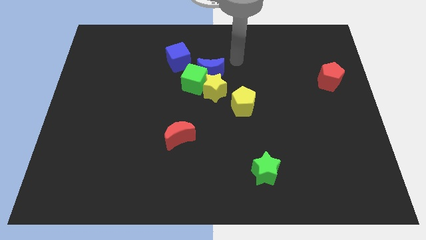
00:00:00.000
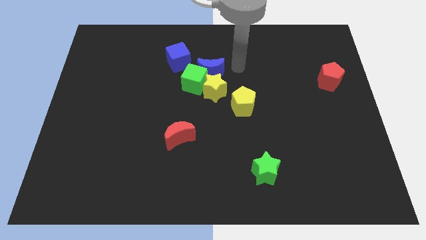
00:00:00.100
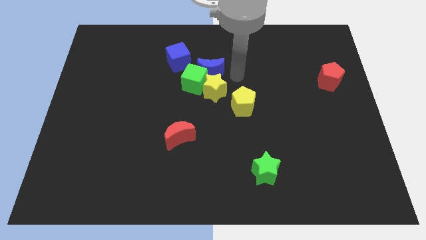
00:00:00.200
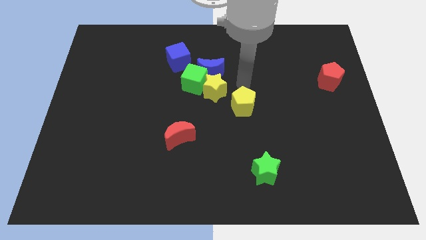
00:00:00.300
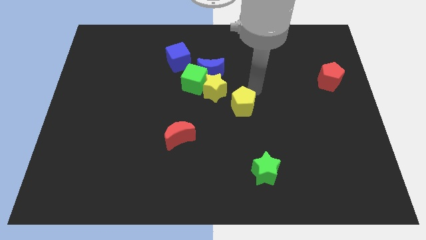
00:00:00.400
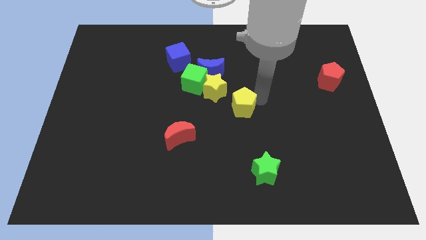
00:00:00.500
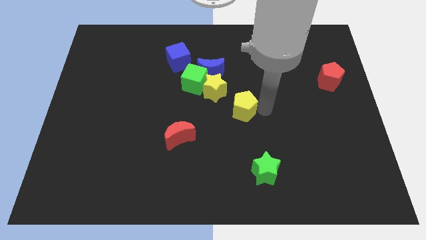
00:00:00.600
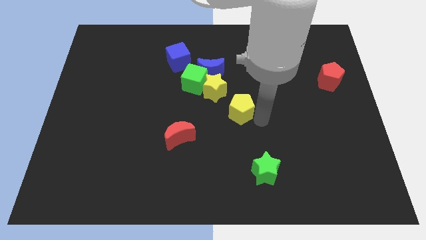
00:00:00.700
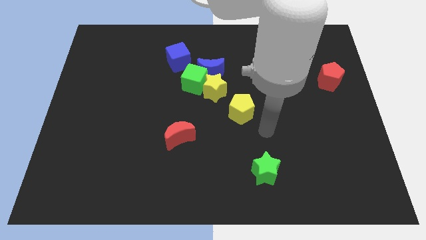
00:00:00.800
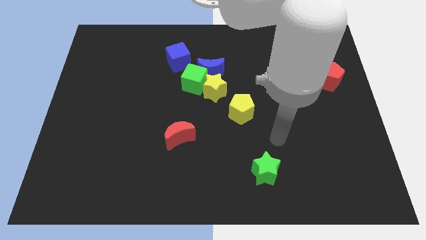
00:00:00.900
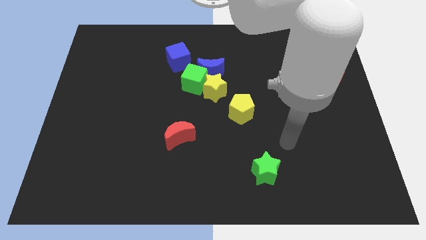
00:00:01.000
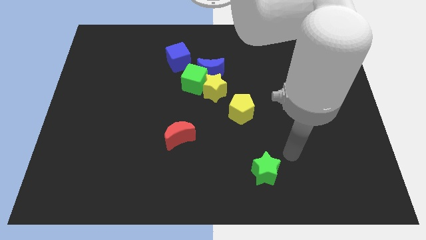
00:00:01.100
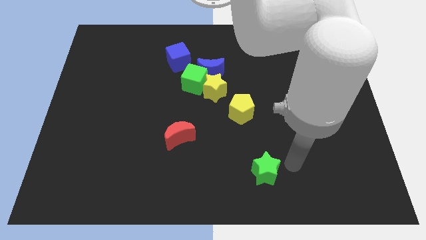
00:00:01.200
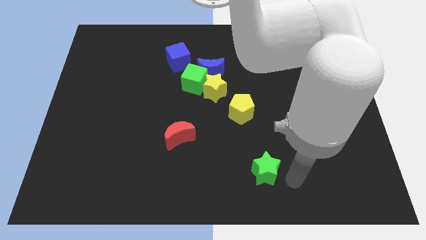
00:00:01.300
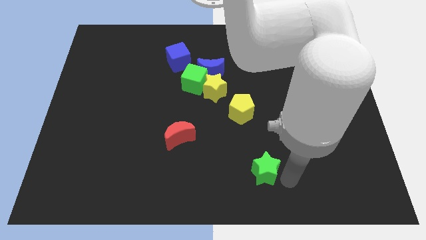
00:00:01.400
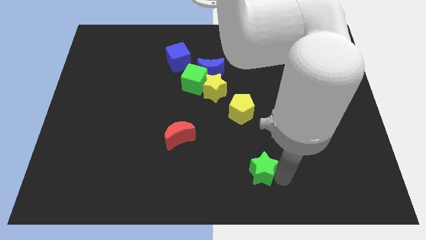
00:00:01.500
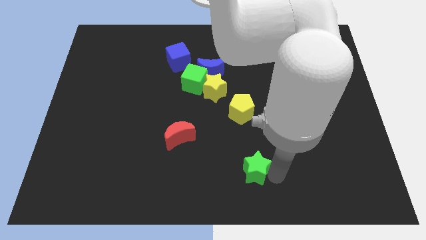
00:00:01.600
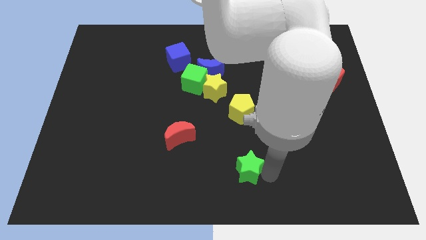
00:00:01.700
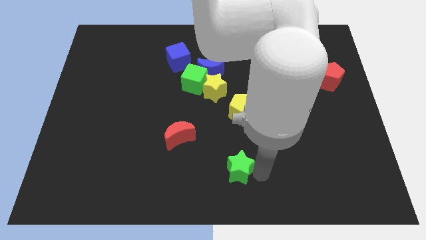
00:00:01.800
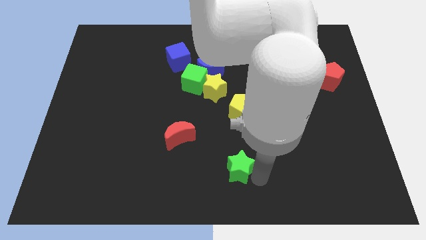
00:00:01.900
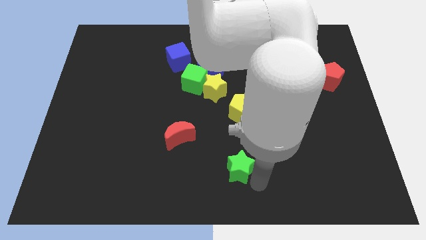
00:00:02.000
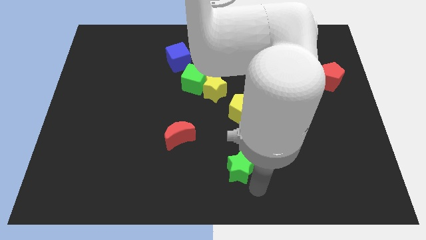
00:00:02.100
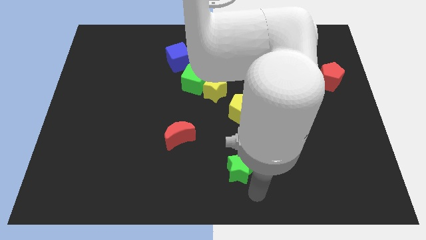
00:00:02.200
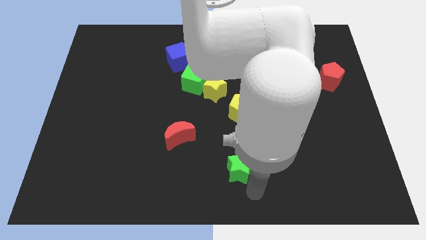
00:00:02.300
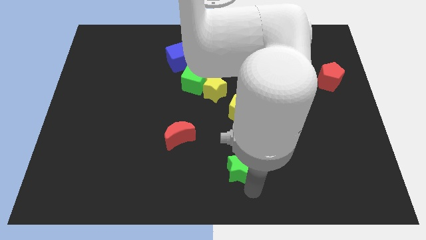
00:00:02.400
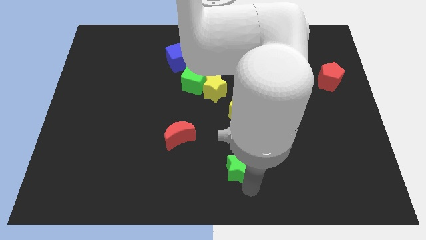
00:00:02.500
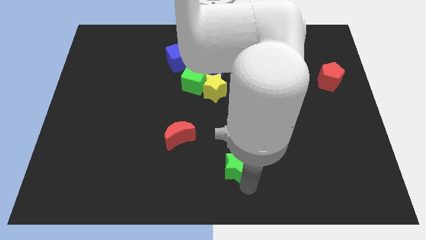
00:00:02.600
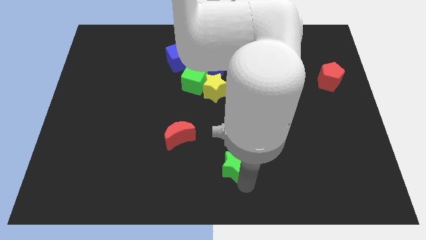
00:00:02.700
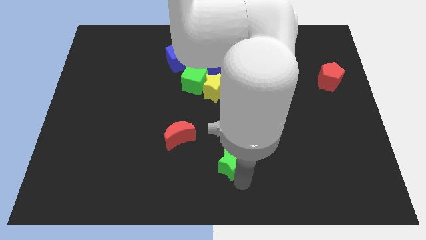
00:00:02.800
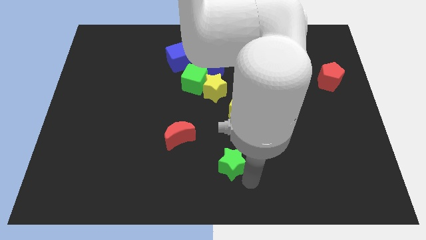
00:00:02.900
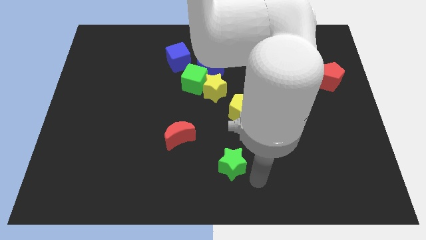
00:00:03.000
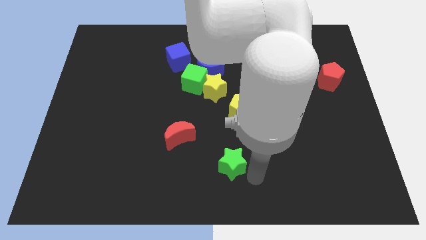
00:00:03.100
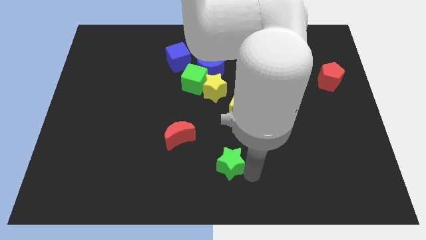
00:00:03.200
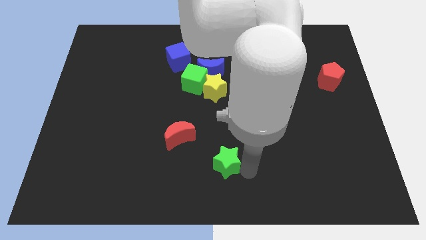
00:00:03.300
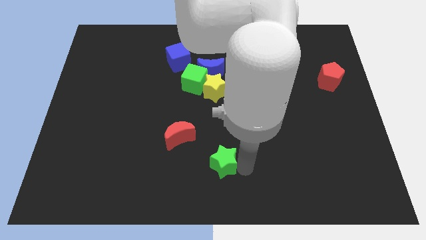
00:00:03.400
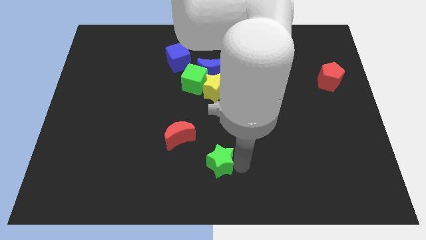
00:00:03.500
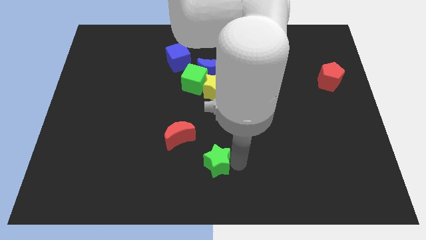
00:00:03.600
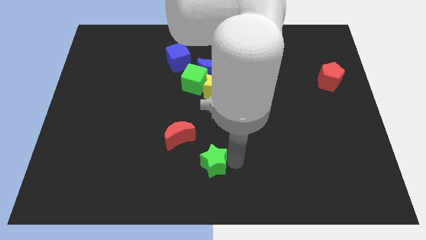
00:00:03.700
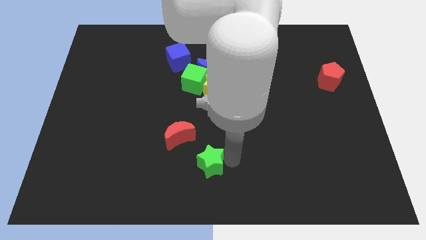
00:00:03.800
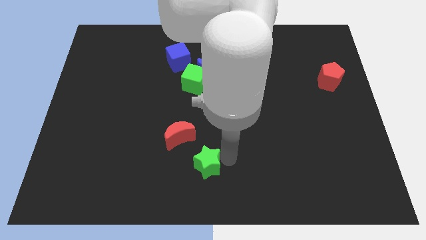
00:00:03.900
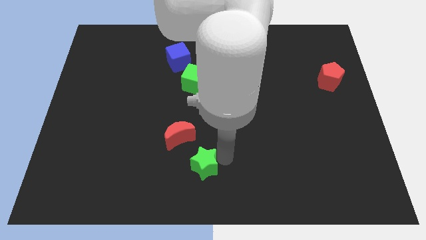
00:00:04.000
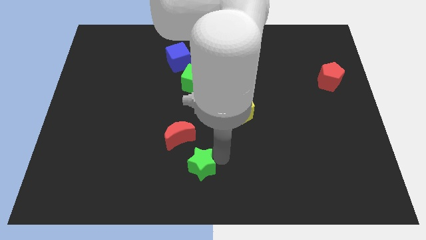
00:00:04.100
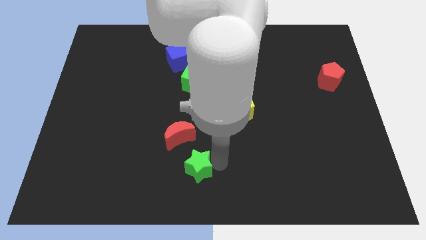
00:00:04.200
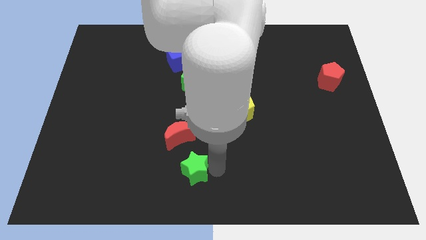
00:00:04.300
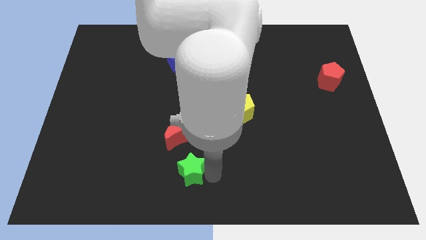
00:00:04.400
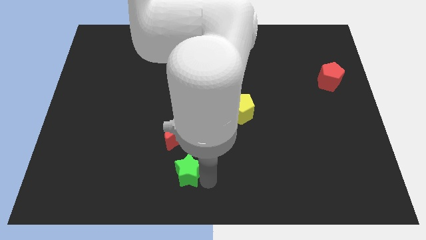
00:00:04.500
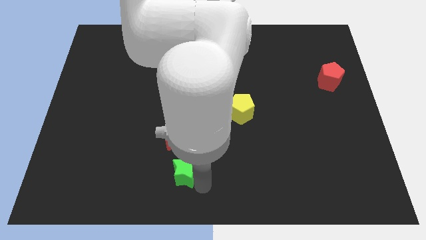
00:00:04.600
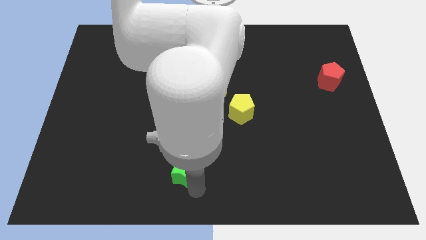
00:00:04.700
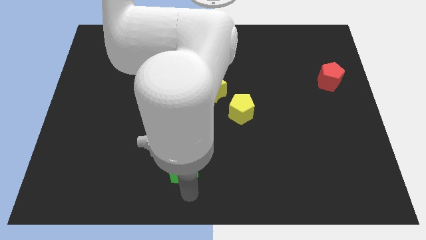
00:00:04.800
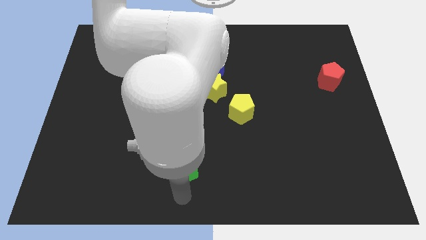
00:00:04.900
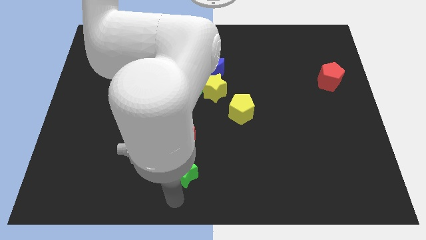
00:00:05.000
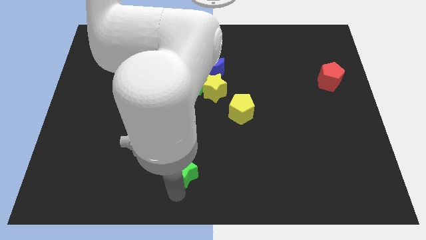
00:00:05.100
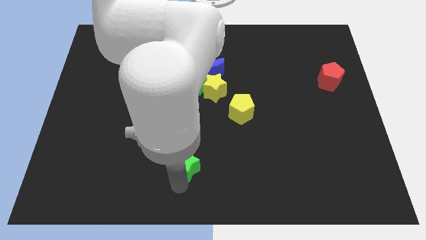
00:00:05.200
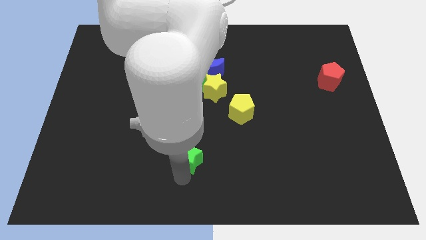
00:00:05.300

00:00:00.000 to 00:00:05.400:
move the green star to the red moon

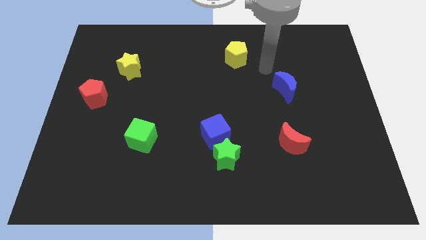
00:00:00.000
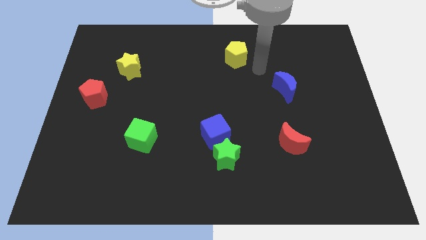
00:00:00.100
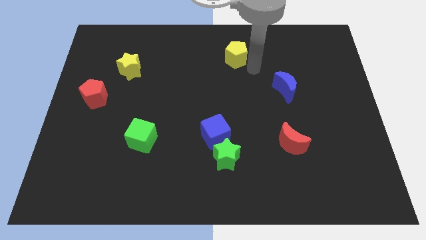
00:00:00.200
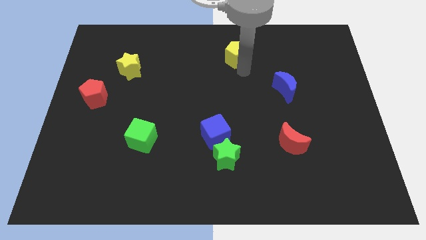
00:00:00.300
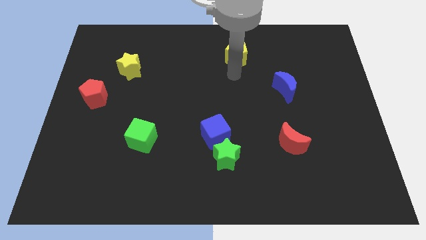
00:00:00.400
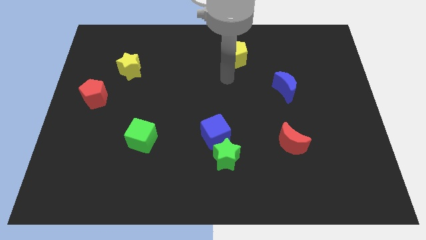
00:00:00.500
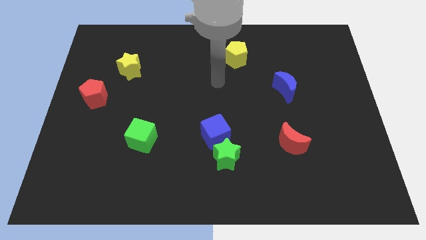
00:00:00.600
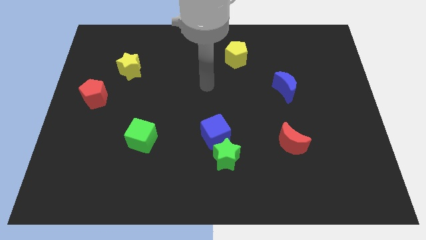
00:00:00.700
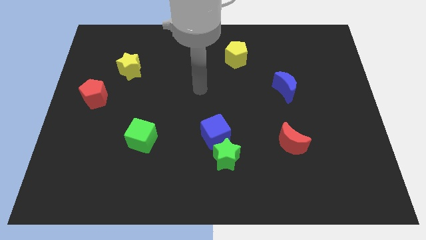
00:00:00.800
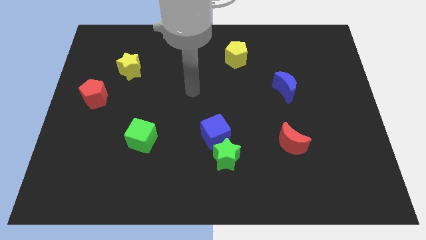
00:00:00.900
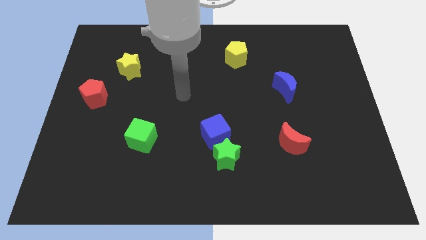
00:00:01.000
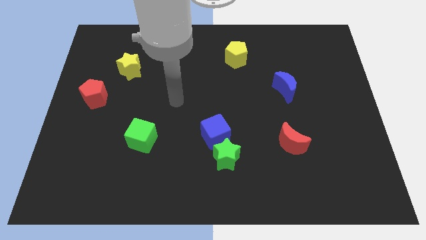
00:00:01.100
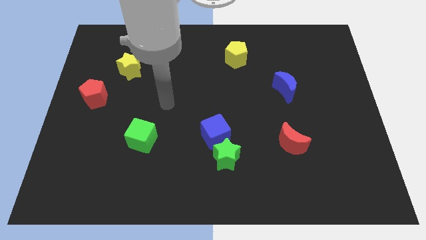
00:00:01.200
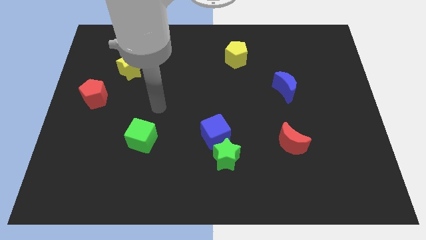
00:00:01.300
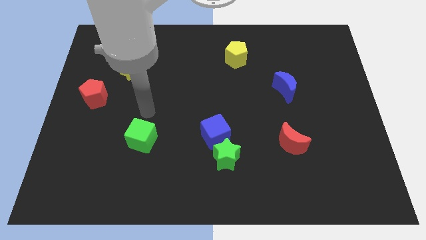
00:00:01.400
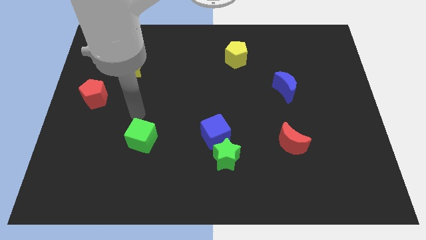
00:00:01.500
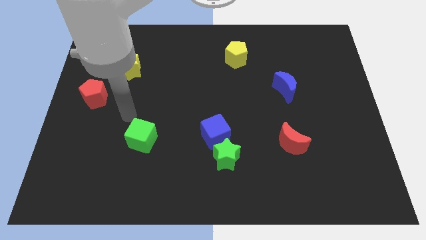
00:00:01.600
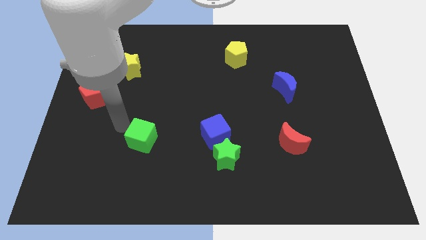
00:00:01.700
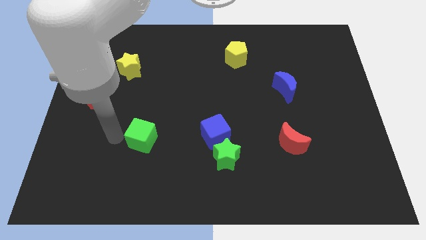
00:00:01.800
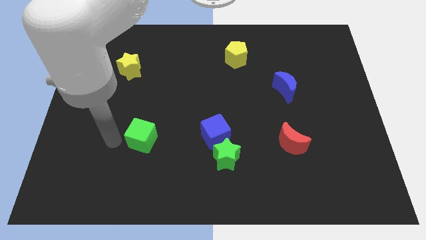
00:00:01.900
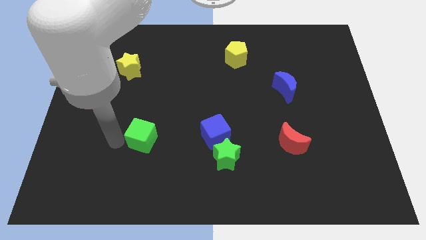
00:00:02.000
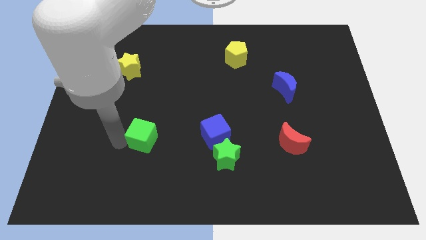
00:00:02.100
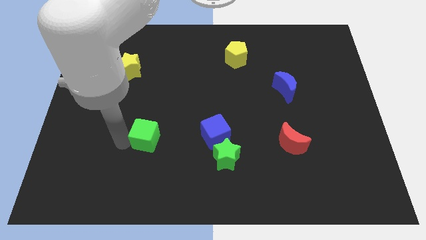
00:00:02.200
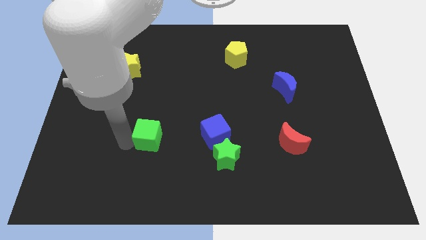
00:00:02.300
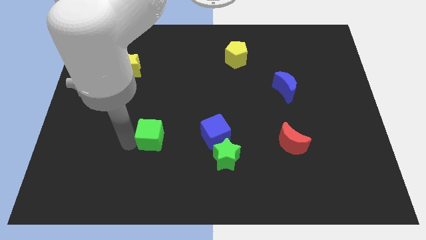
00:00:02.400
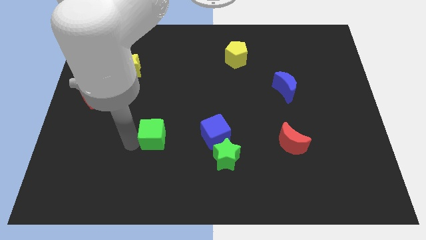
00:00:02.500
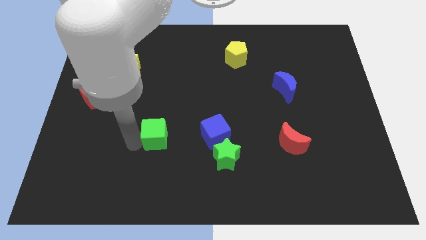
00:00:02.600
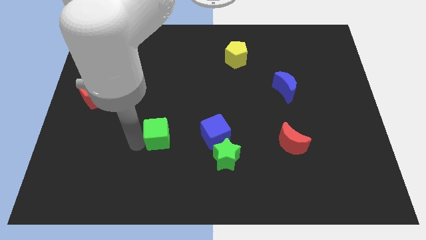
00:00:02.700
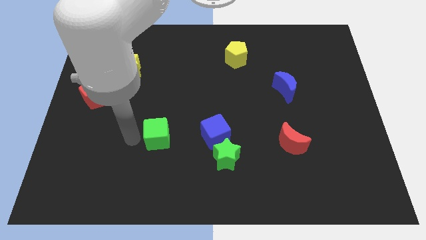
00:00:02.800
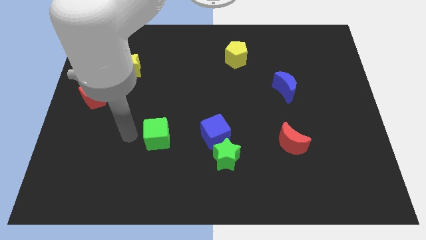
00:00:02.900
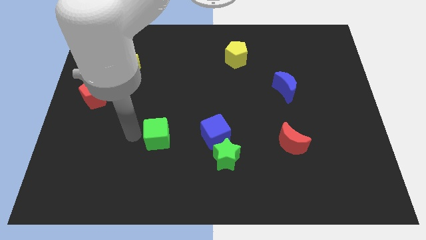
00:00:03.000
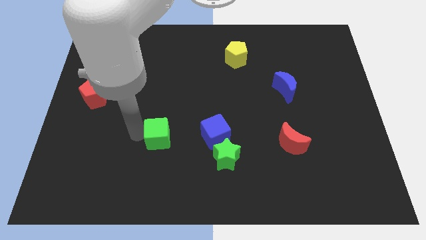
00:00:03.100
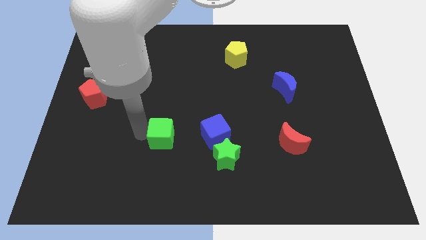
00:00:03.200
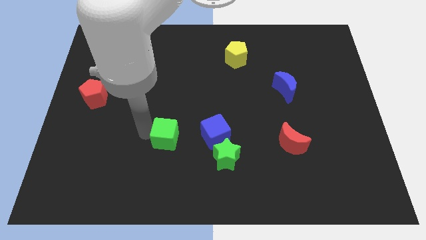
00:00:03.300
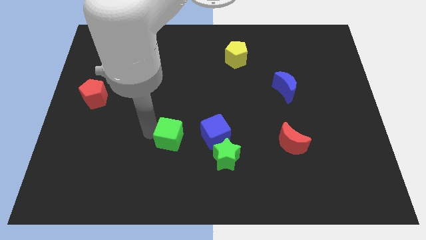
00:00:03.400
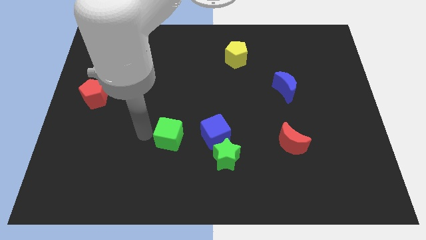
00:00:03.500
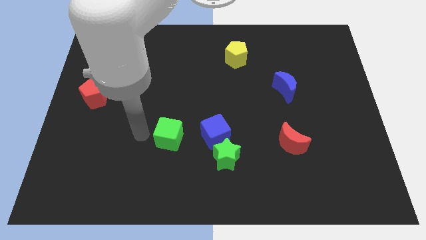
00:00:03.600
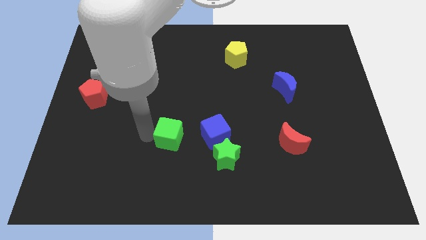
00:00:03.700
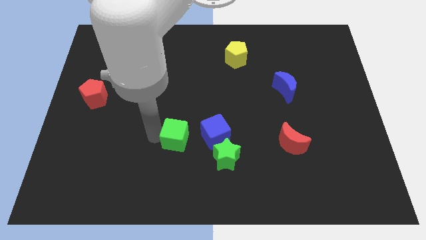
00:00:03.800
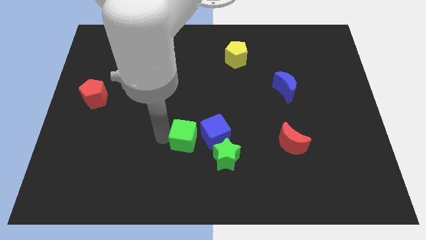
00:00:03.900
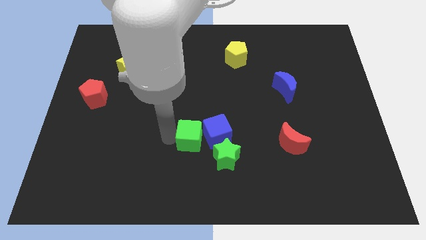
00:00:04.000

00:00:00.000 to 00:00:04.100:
move the green cube close to the blue cube
